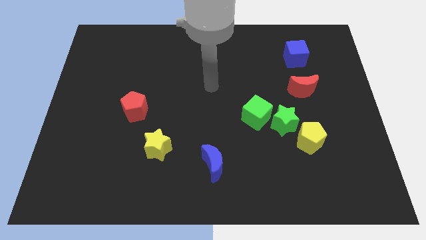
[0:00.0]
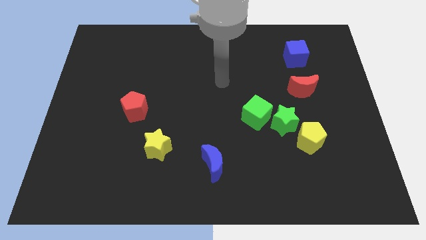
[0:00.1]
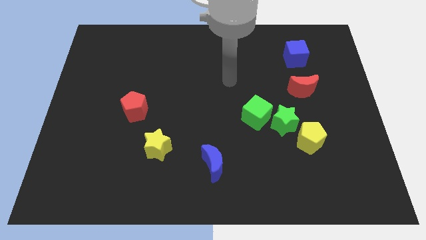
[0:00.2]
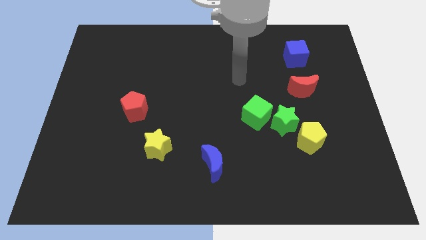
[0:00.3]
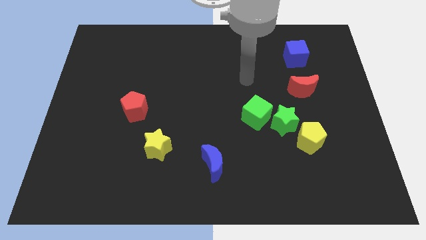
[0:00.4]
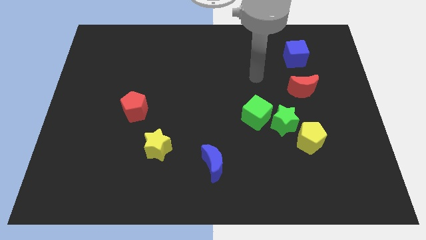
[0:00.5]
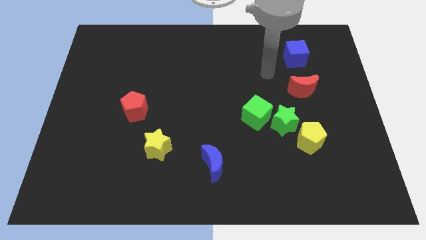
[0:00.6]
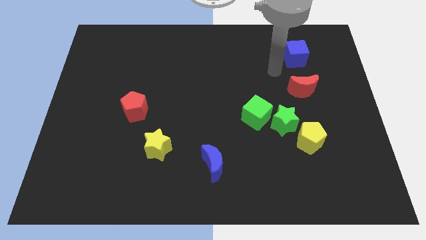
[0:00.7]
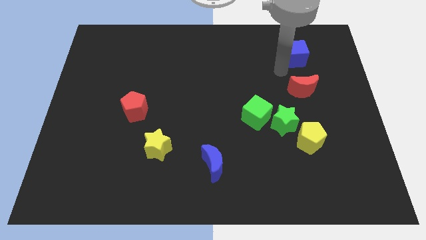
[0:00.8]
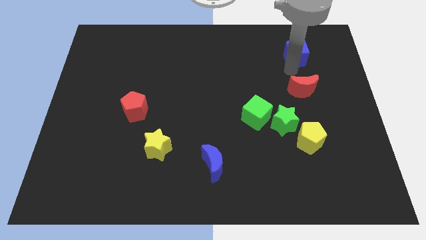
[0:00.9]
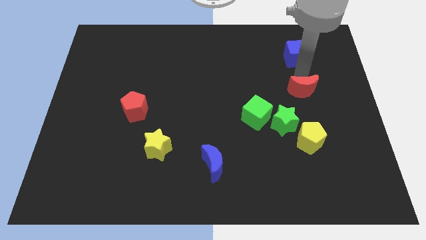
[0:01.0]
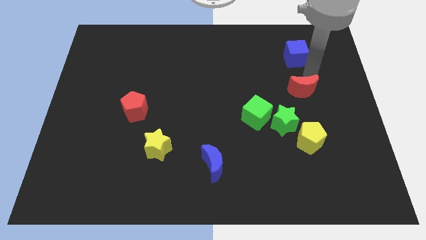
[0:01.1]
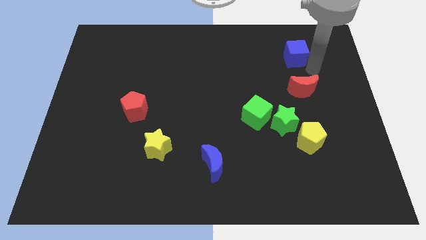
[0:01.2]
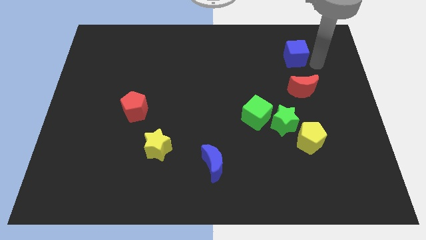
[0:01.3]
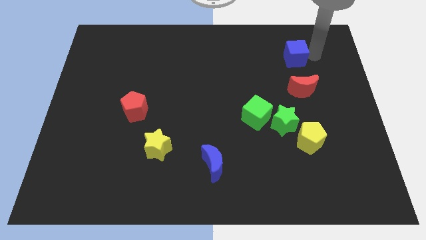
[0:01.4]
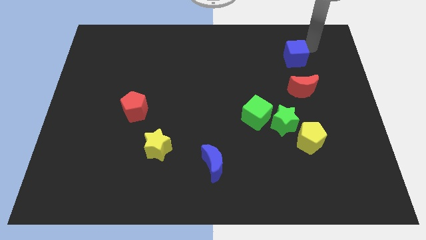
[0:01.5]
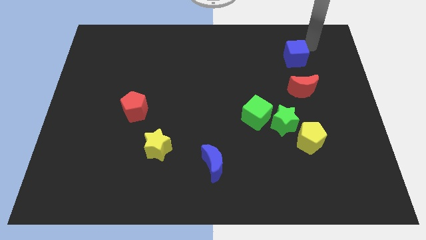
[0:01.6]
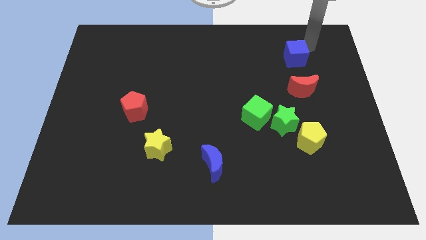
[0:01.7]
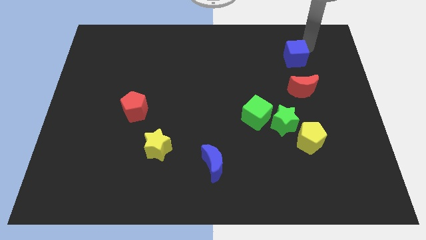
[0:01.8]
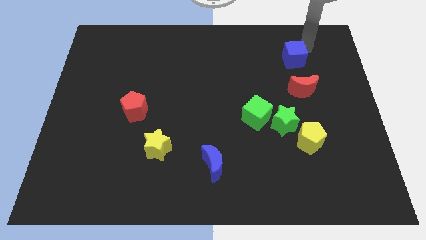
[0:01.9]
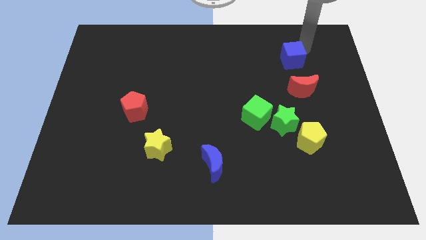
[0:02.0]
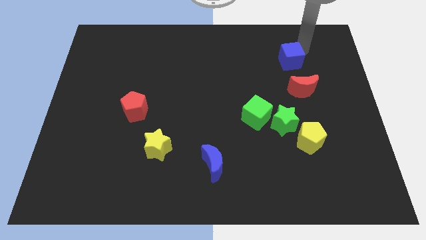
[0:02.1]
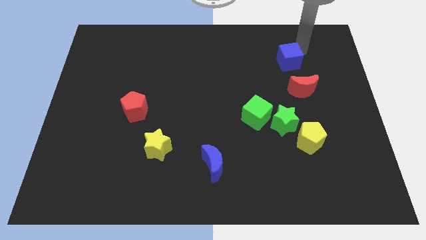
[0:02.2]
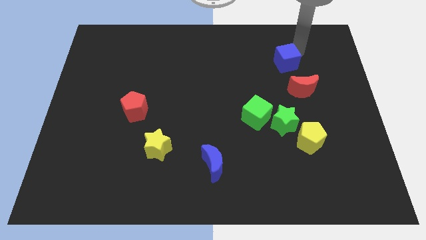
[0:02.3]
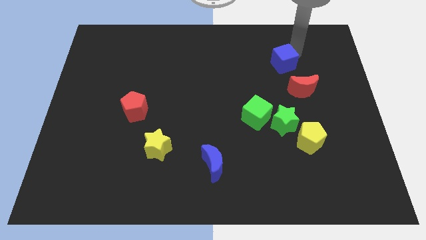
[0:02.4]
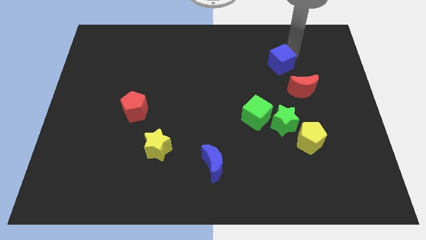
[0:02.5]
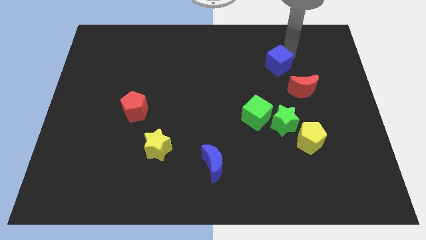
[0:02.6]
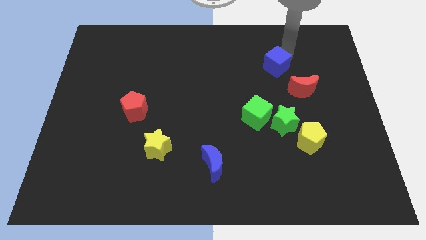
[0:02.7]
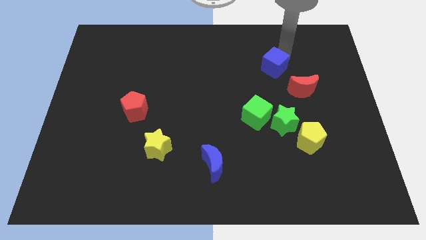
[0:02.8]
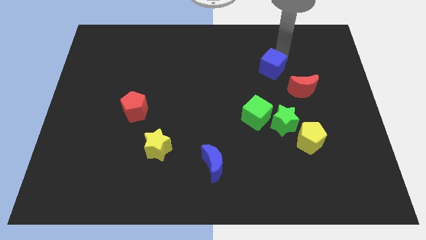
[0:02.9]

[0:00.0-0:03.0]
slightly move the blue cube diagonally down and to the left

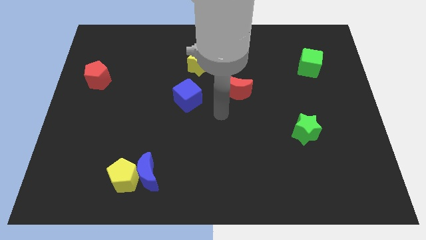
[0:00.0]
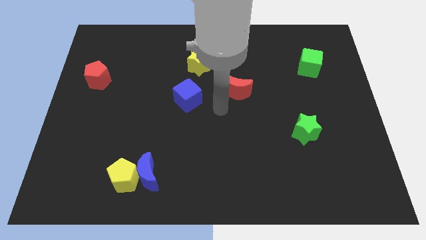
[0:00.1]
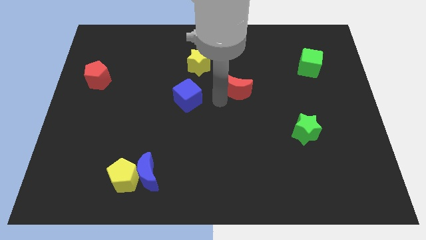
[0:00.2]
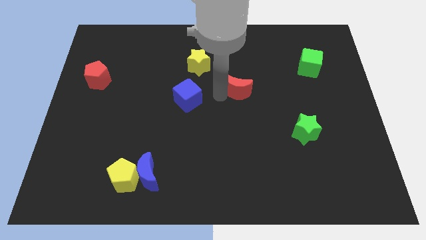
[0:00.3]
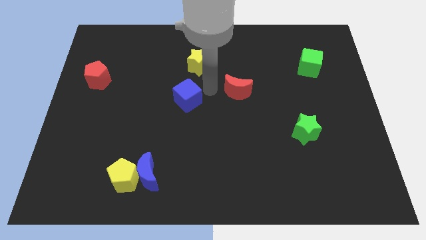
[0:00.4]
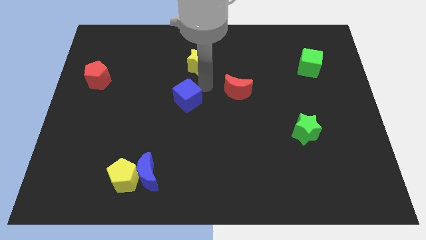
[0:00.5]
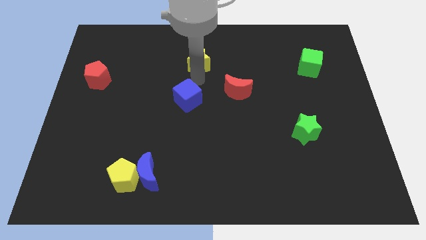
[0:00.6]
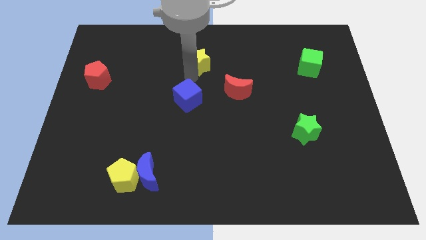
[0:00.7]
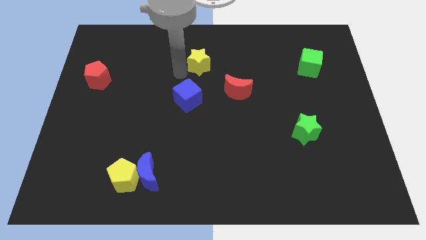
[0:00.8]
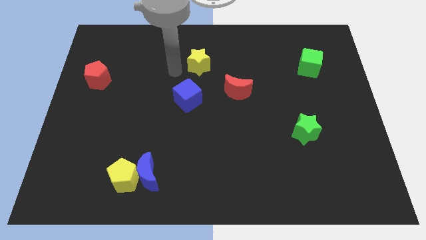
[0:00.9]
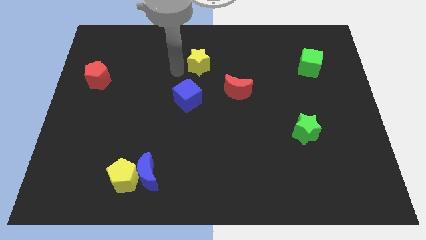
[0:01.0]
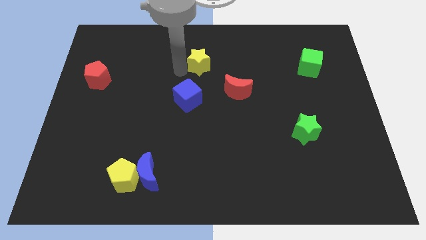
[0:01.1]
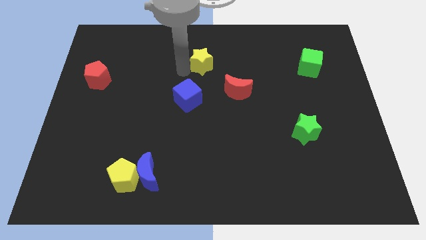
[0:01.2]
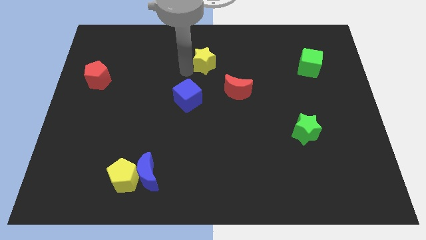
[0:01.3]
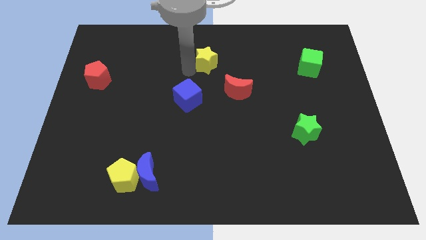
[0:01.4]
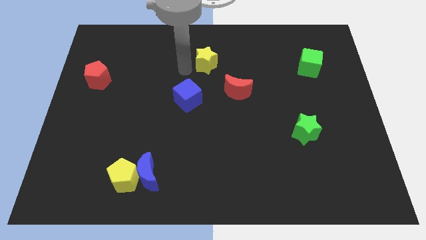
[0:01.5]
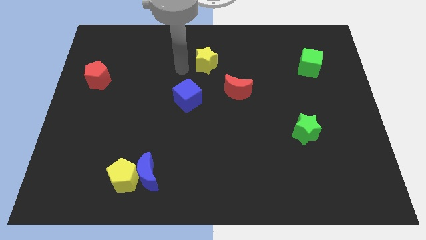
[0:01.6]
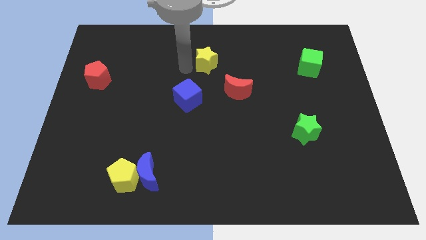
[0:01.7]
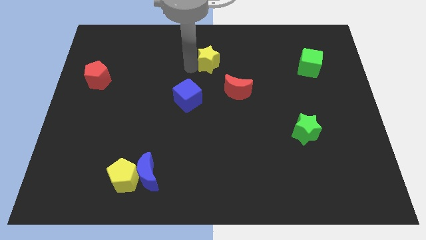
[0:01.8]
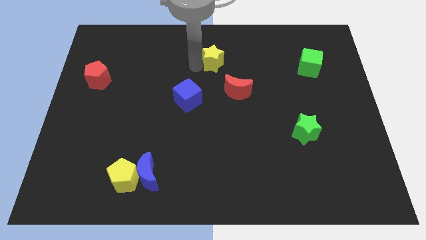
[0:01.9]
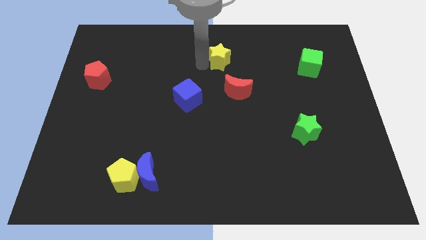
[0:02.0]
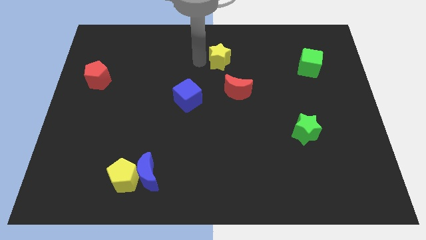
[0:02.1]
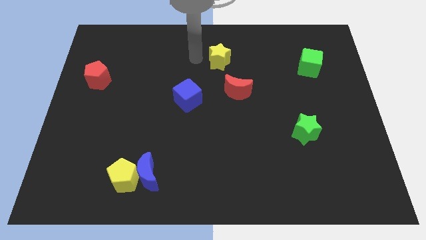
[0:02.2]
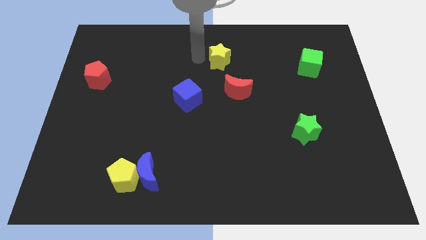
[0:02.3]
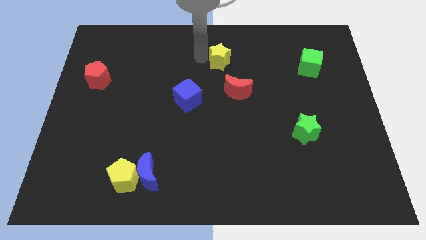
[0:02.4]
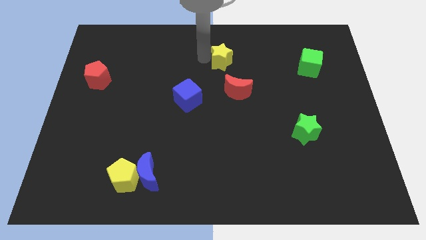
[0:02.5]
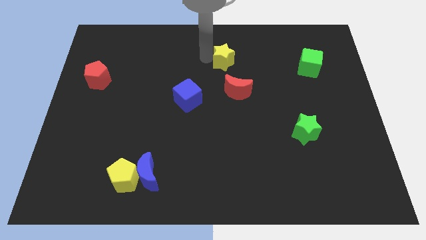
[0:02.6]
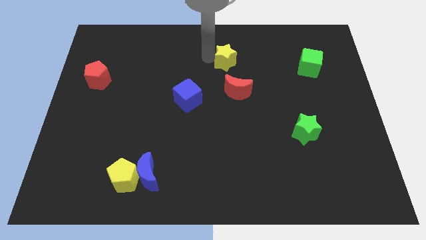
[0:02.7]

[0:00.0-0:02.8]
move the yellow star a little bit right

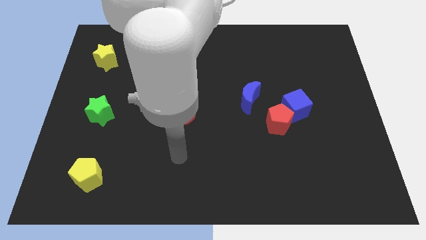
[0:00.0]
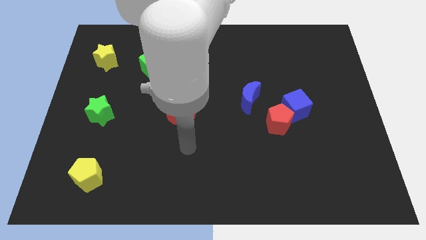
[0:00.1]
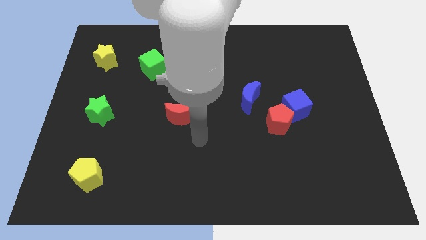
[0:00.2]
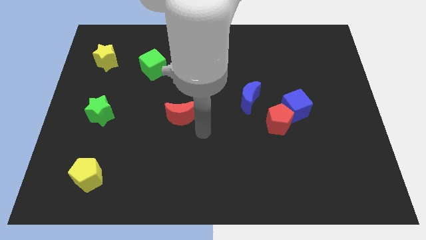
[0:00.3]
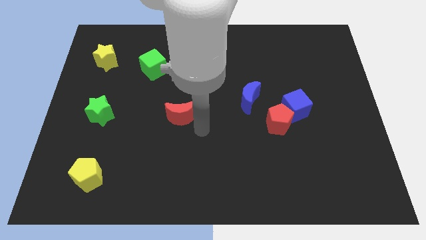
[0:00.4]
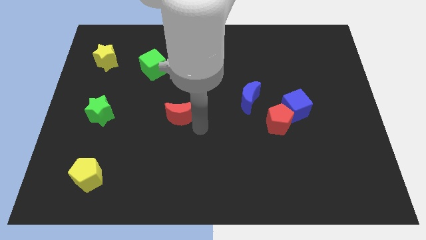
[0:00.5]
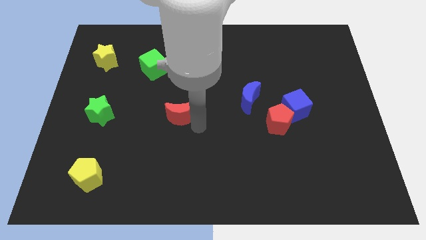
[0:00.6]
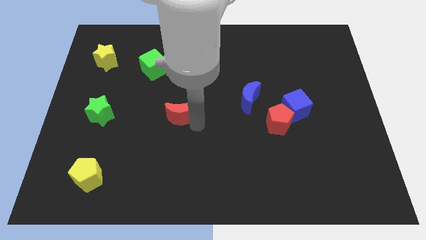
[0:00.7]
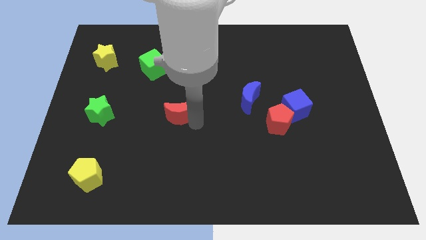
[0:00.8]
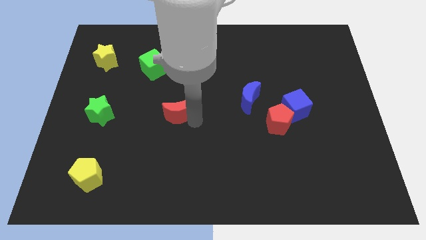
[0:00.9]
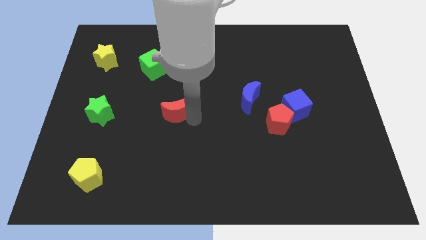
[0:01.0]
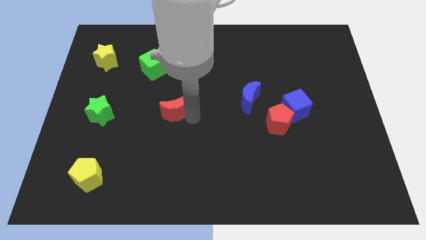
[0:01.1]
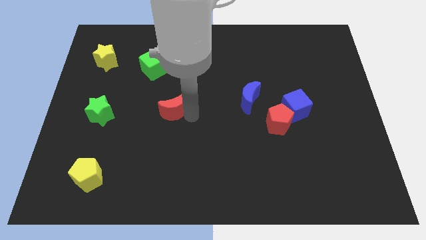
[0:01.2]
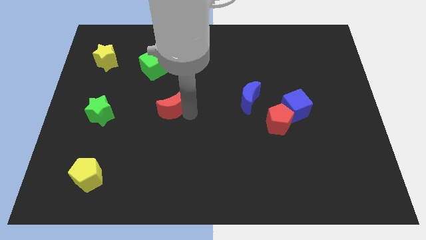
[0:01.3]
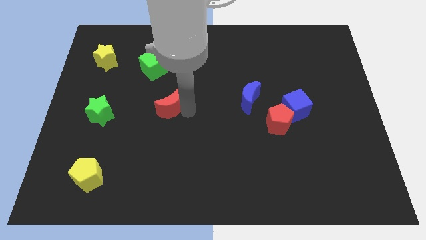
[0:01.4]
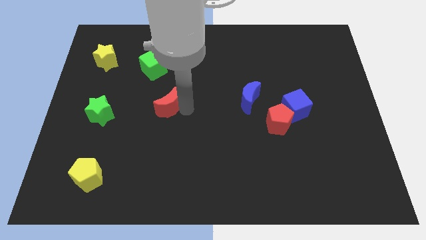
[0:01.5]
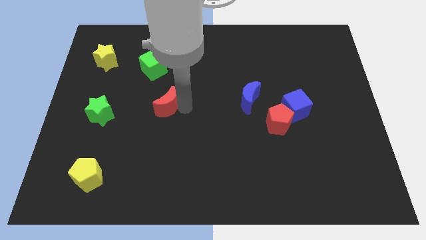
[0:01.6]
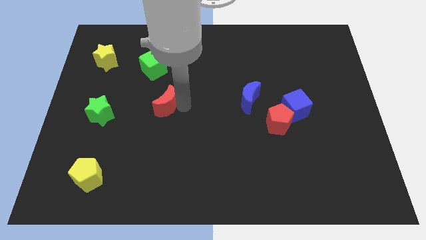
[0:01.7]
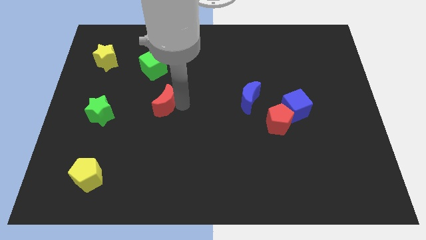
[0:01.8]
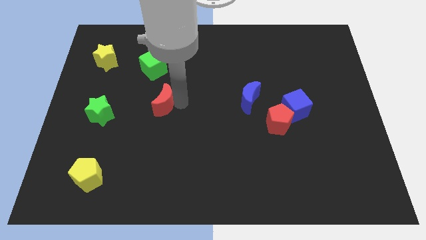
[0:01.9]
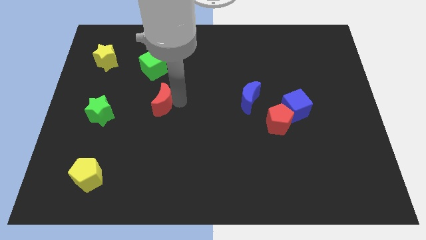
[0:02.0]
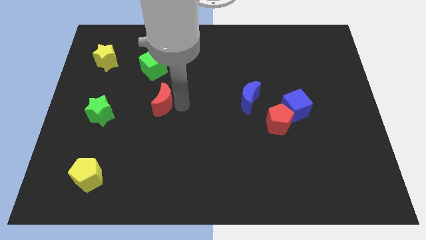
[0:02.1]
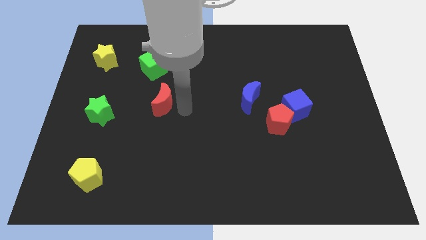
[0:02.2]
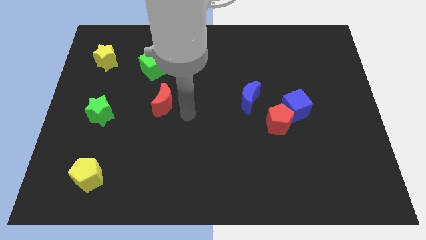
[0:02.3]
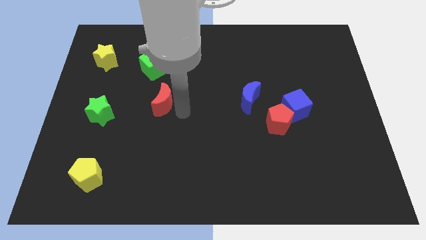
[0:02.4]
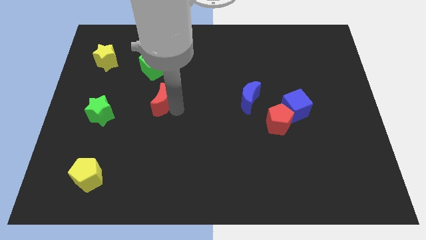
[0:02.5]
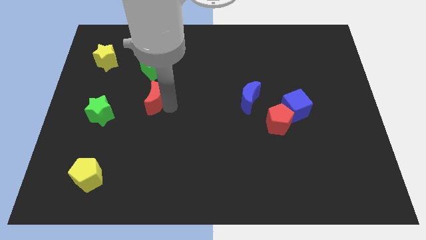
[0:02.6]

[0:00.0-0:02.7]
slightly push the red moon upwards and left diagonally
